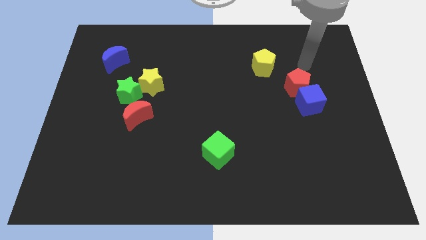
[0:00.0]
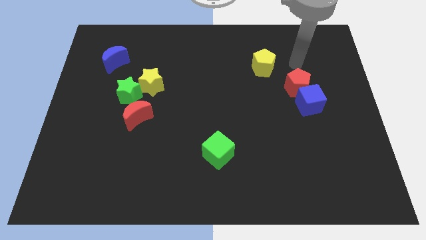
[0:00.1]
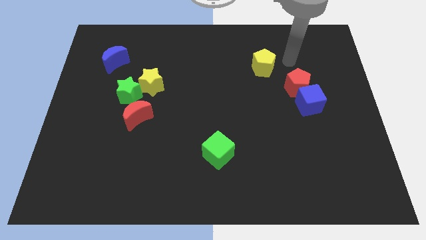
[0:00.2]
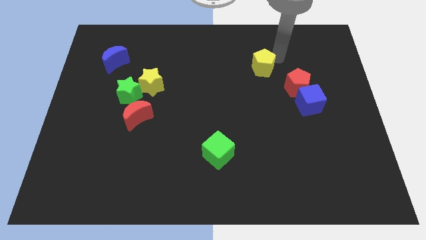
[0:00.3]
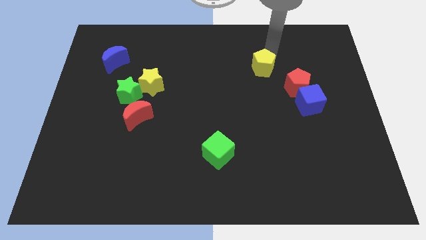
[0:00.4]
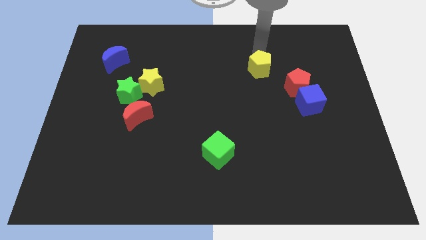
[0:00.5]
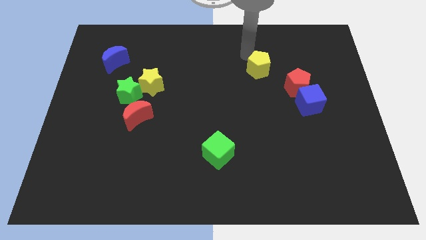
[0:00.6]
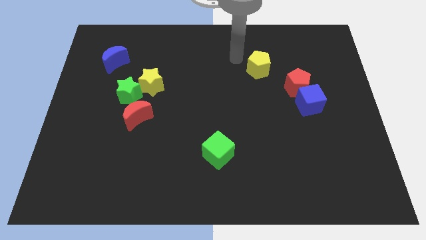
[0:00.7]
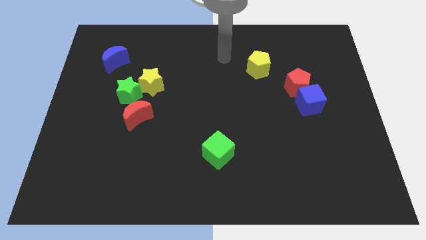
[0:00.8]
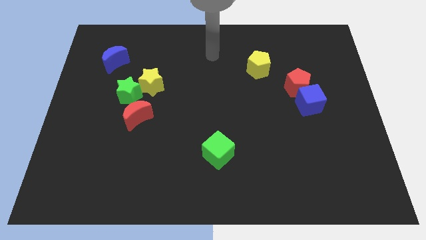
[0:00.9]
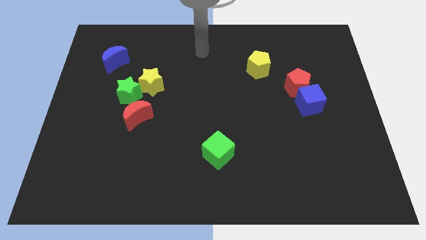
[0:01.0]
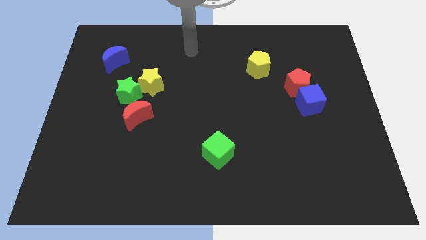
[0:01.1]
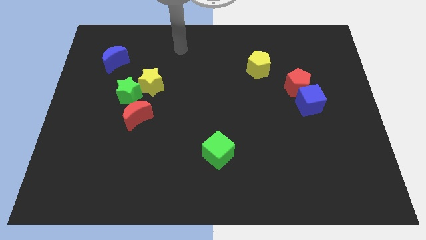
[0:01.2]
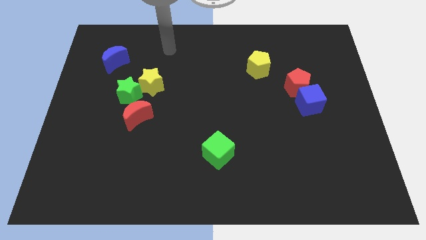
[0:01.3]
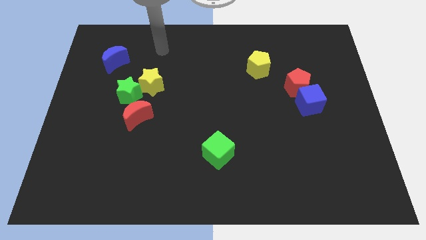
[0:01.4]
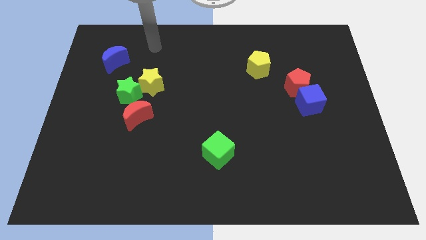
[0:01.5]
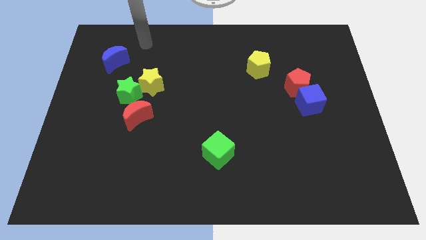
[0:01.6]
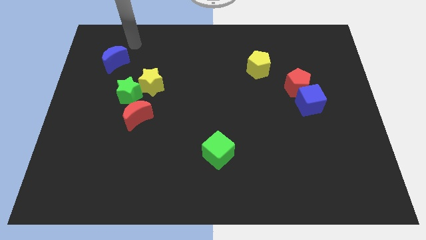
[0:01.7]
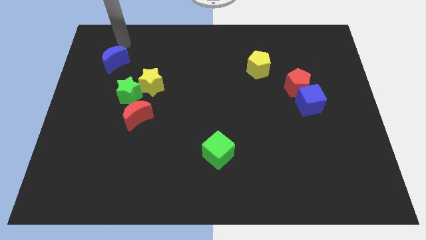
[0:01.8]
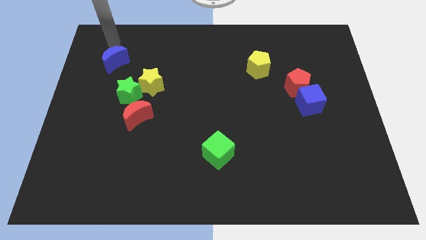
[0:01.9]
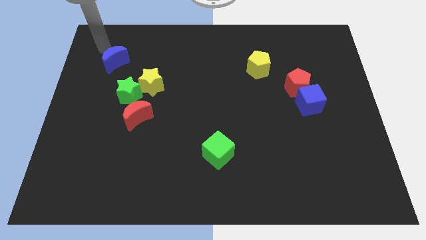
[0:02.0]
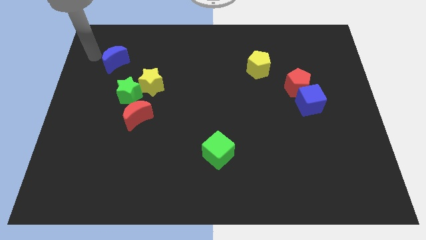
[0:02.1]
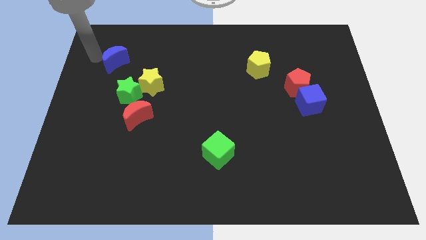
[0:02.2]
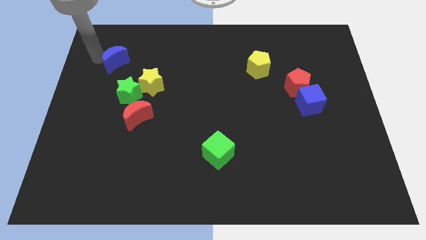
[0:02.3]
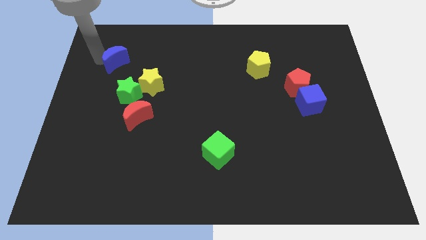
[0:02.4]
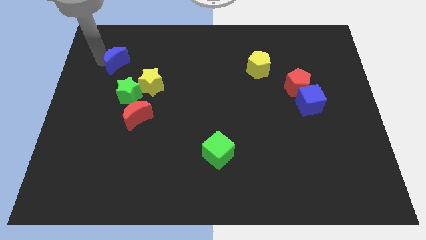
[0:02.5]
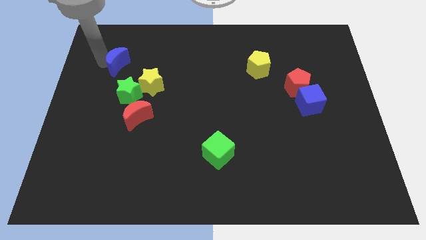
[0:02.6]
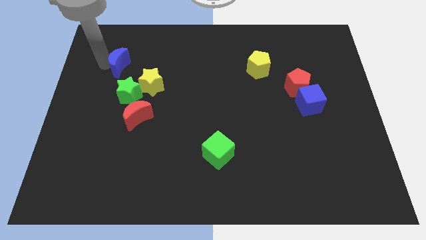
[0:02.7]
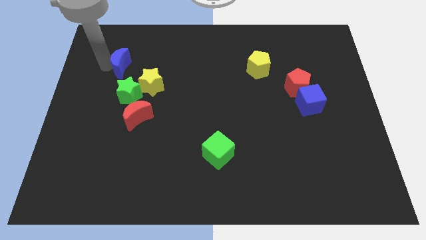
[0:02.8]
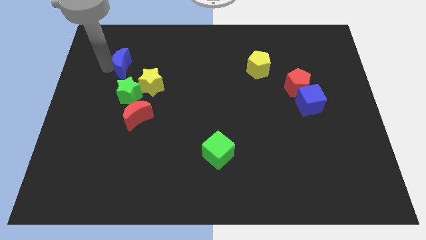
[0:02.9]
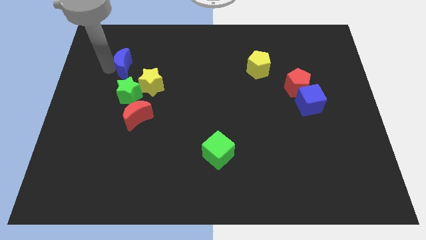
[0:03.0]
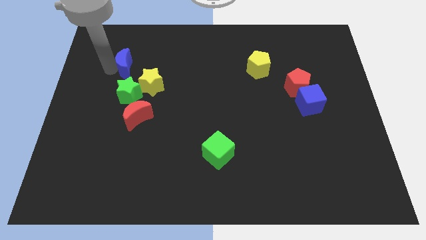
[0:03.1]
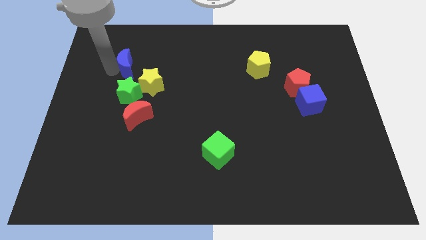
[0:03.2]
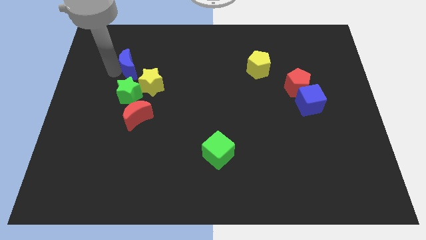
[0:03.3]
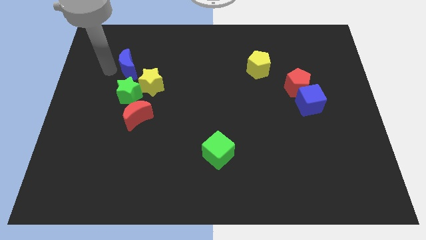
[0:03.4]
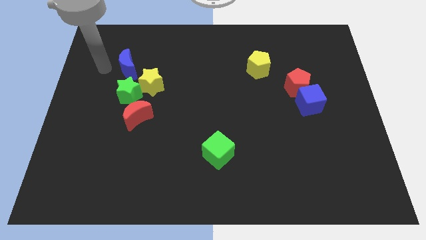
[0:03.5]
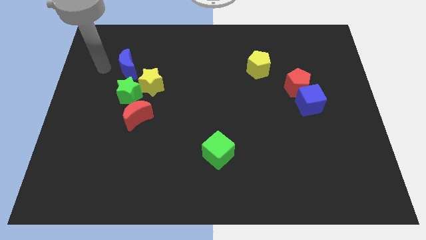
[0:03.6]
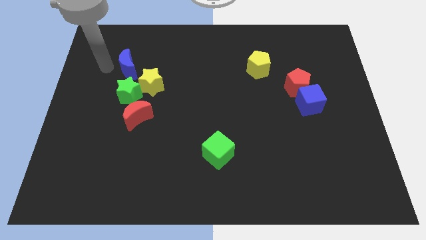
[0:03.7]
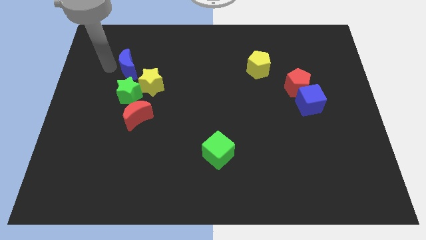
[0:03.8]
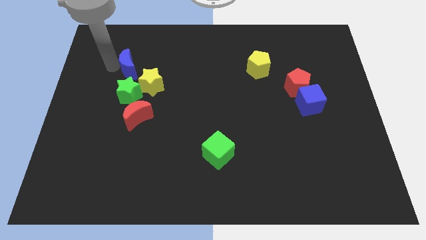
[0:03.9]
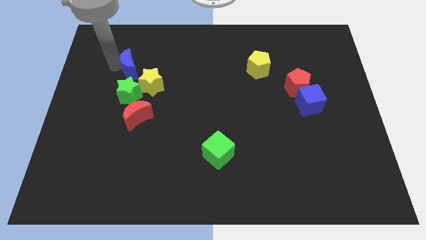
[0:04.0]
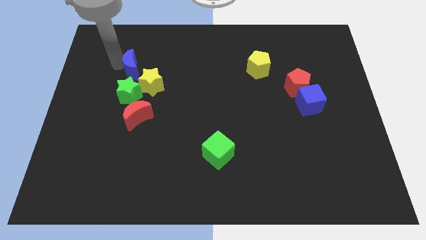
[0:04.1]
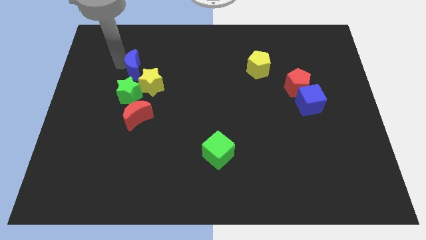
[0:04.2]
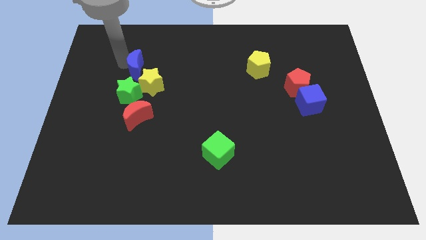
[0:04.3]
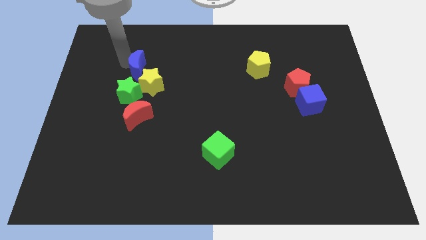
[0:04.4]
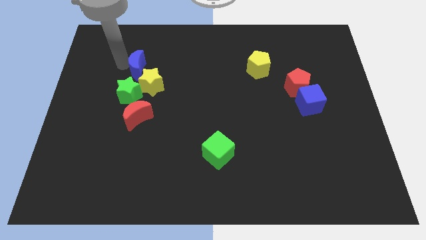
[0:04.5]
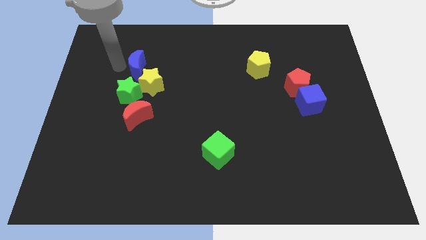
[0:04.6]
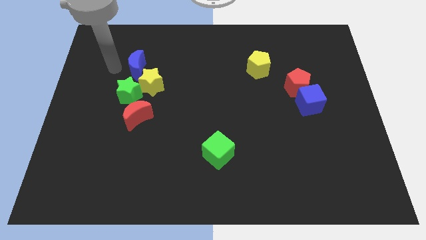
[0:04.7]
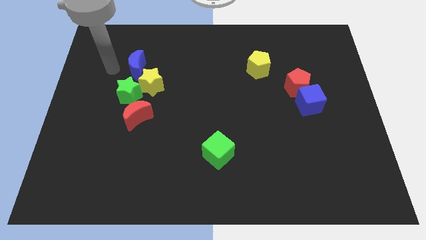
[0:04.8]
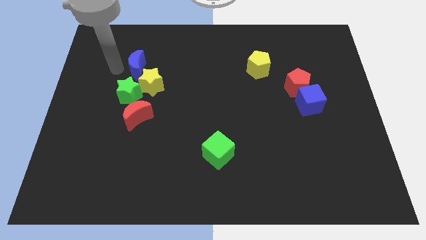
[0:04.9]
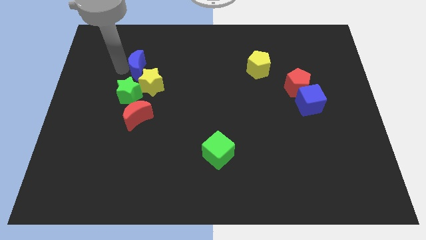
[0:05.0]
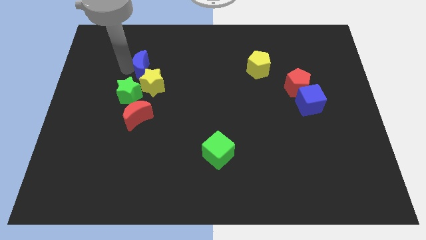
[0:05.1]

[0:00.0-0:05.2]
slightly push the blue moon diagonally downwards and to the right

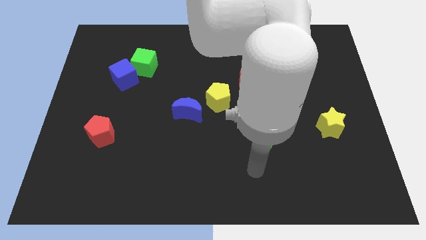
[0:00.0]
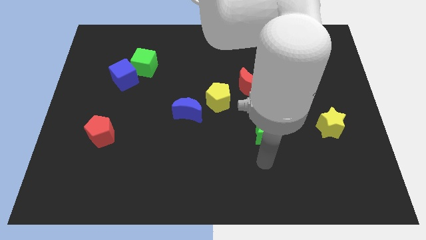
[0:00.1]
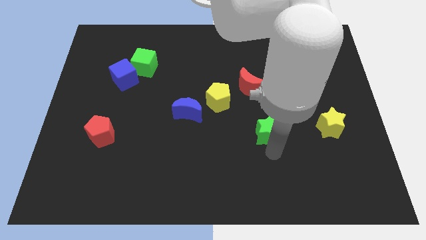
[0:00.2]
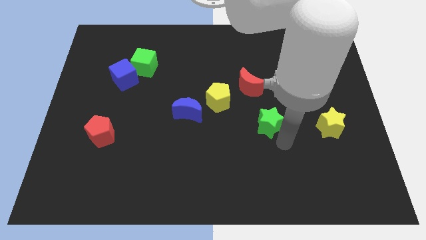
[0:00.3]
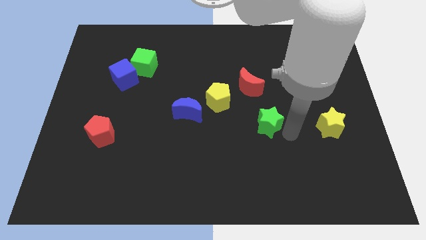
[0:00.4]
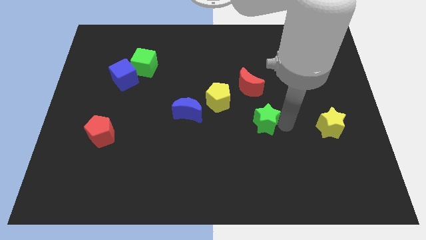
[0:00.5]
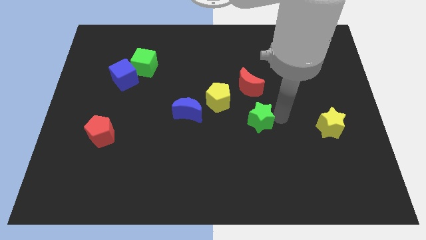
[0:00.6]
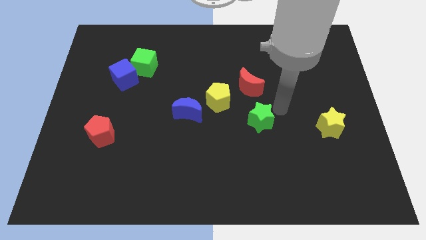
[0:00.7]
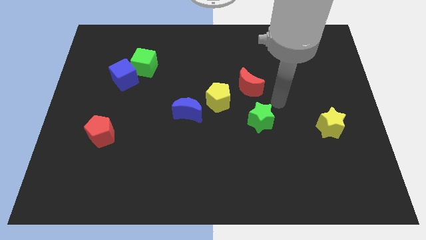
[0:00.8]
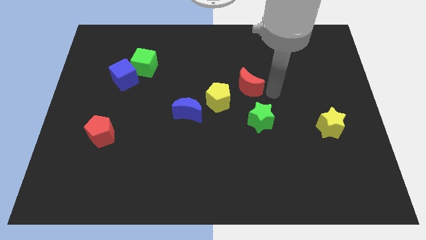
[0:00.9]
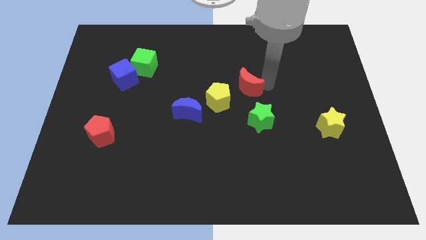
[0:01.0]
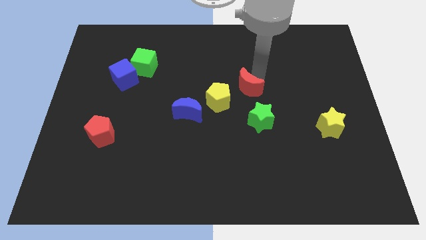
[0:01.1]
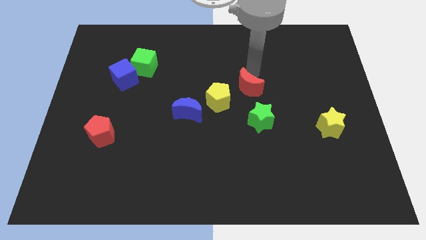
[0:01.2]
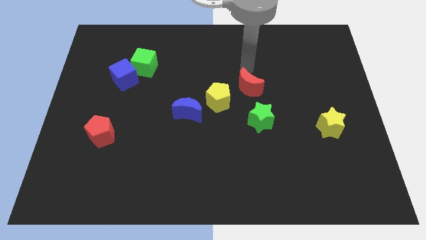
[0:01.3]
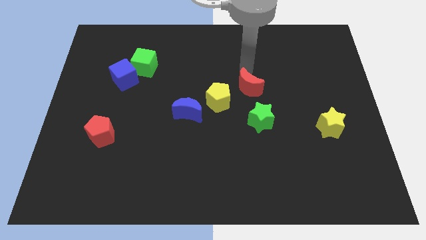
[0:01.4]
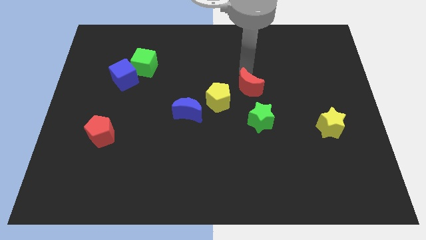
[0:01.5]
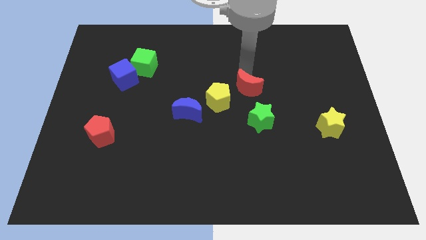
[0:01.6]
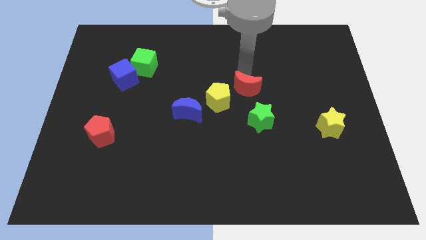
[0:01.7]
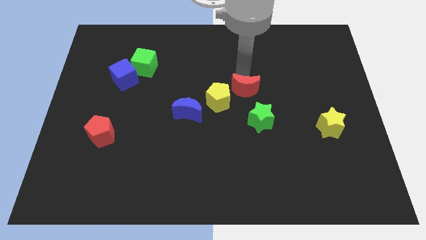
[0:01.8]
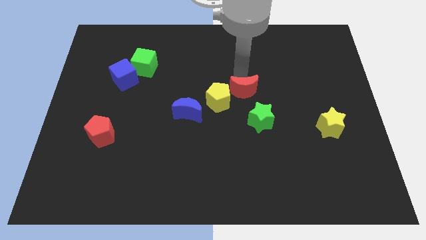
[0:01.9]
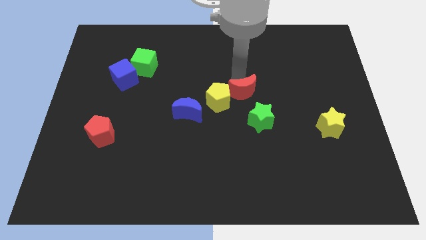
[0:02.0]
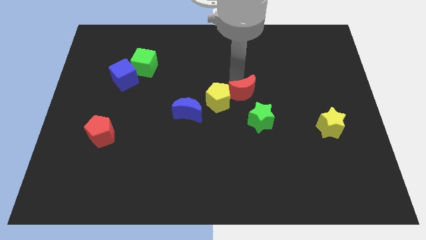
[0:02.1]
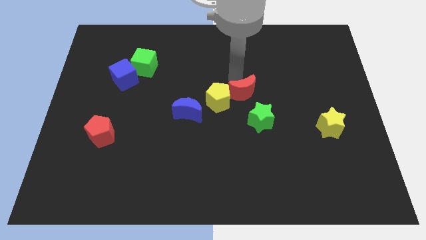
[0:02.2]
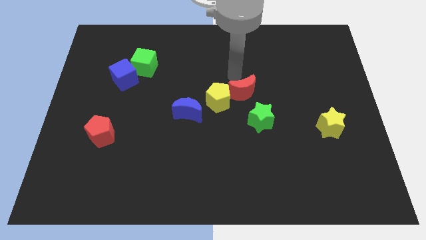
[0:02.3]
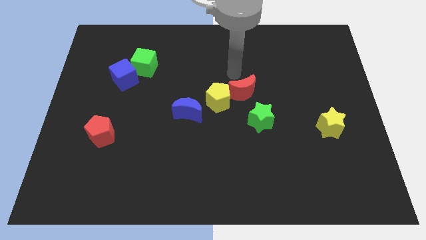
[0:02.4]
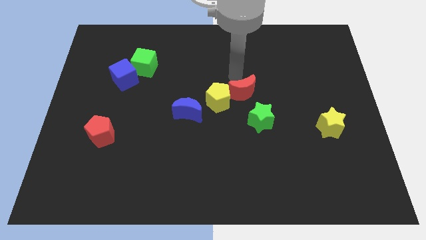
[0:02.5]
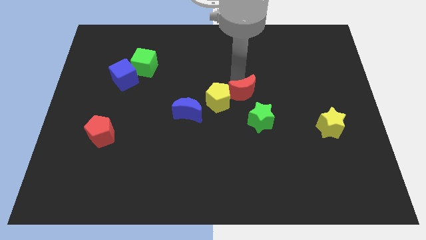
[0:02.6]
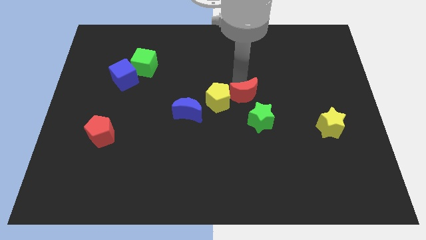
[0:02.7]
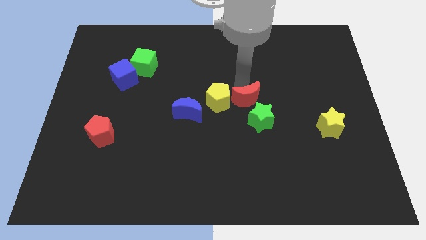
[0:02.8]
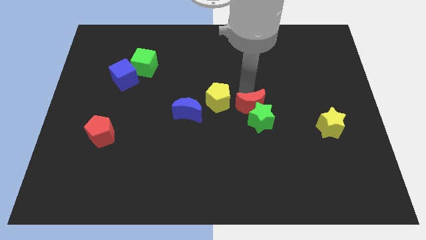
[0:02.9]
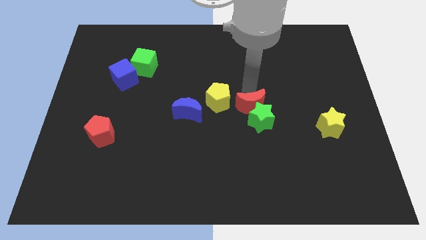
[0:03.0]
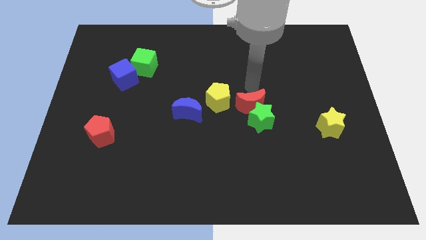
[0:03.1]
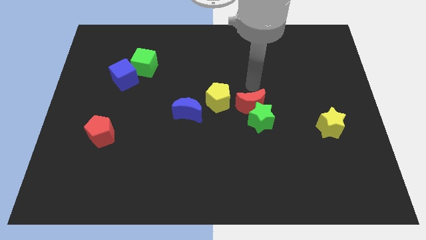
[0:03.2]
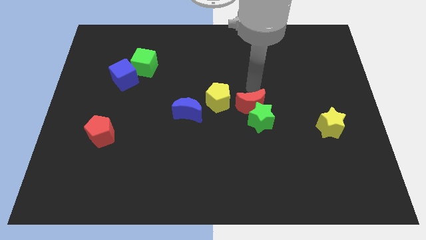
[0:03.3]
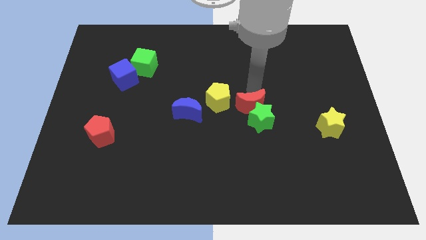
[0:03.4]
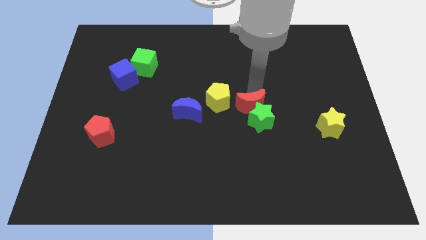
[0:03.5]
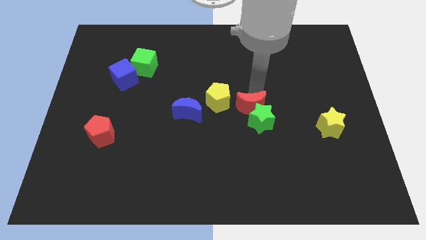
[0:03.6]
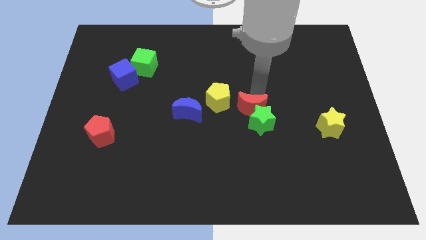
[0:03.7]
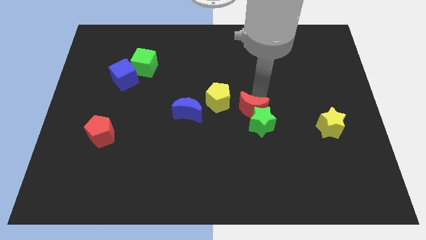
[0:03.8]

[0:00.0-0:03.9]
slightly slide the red moon down
